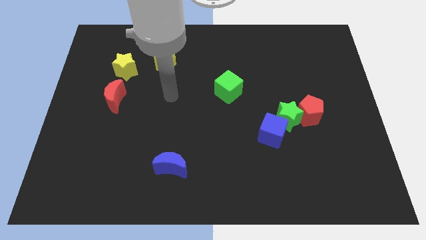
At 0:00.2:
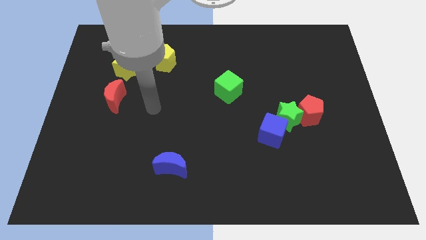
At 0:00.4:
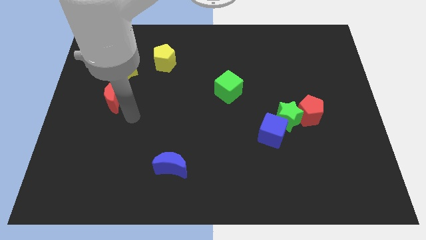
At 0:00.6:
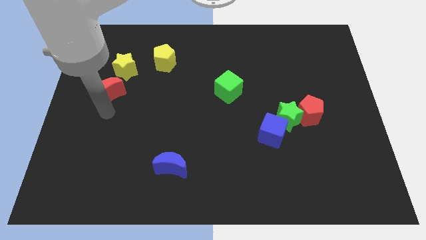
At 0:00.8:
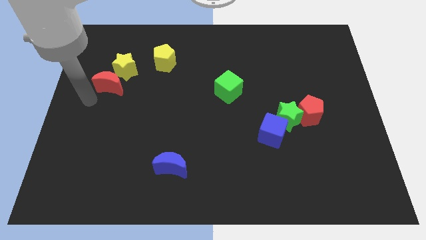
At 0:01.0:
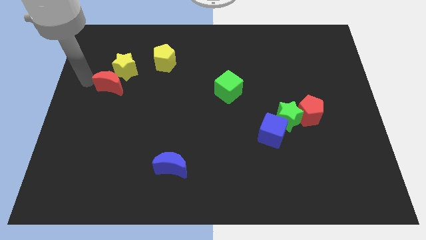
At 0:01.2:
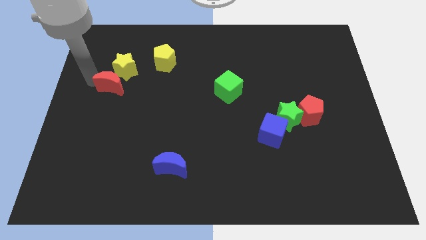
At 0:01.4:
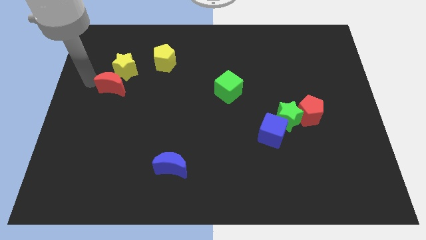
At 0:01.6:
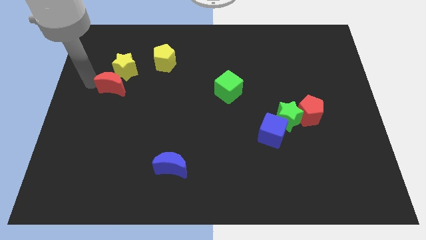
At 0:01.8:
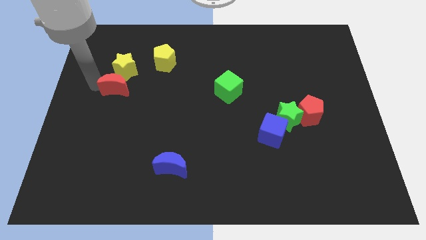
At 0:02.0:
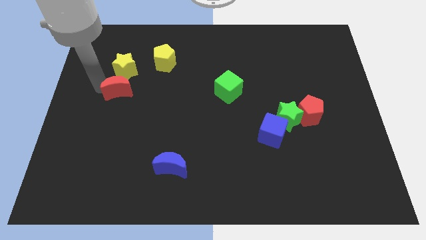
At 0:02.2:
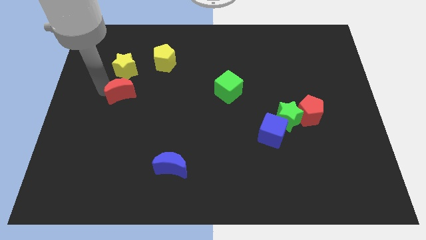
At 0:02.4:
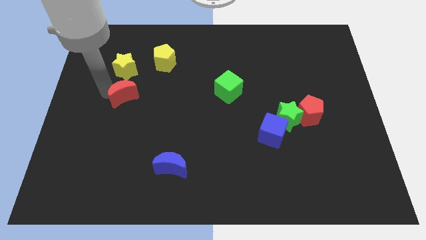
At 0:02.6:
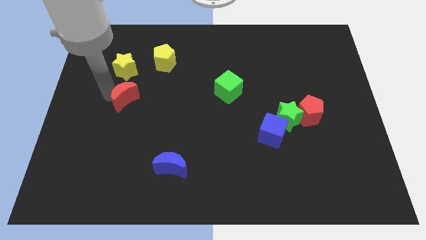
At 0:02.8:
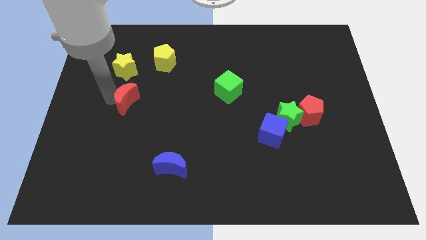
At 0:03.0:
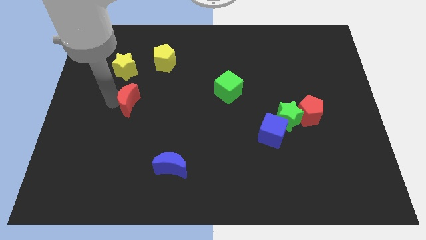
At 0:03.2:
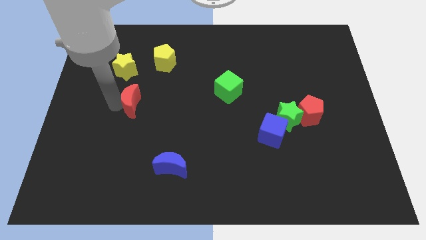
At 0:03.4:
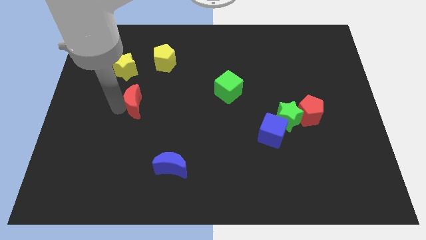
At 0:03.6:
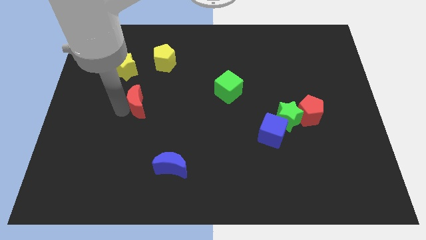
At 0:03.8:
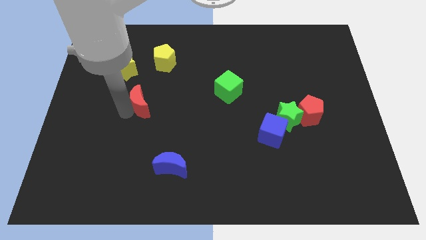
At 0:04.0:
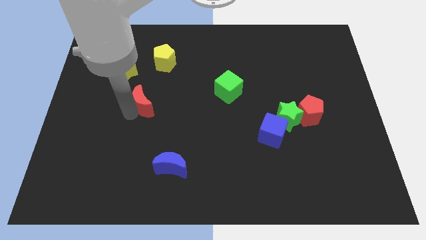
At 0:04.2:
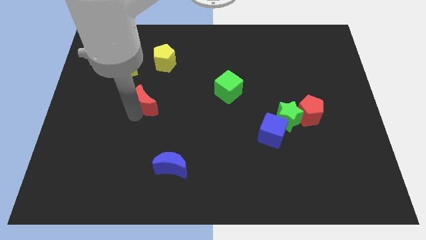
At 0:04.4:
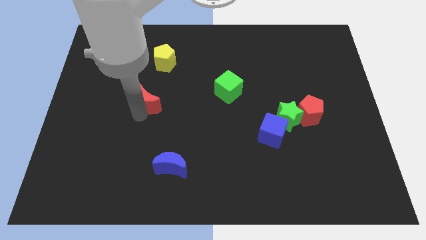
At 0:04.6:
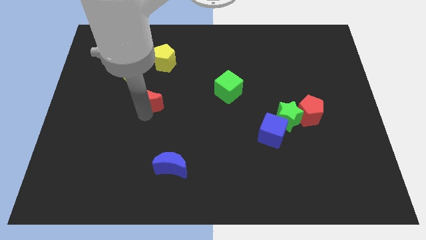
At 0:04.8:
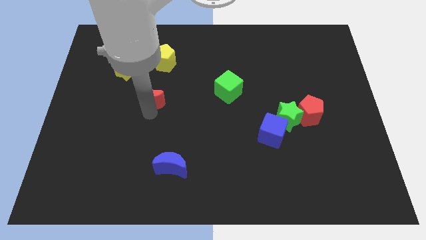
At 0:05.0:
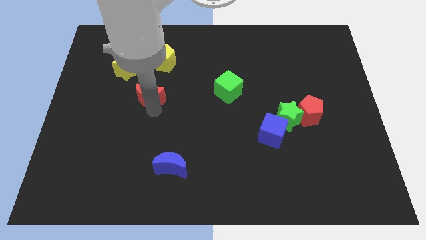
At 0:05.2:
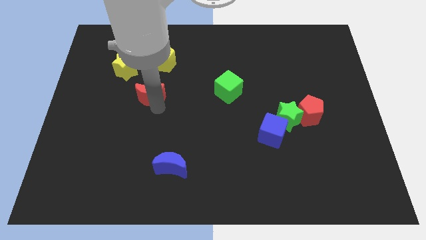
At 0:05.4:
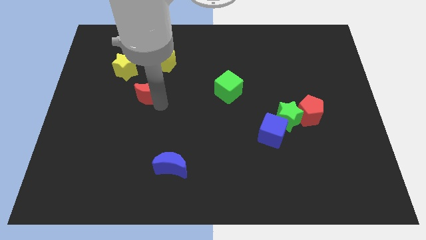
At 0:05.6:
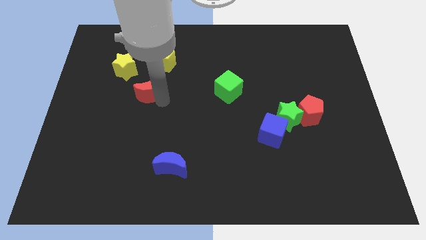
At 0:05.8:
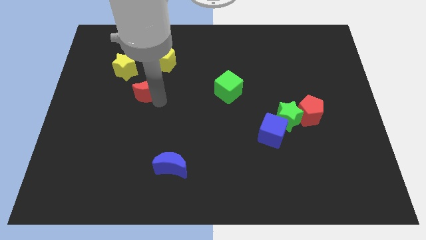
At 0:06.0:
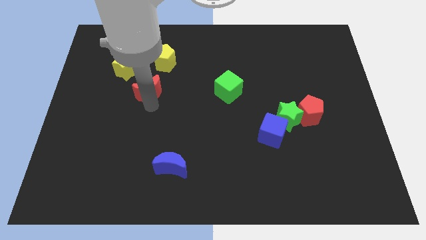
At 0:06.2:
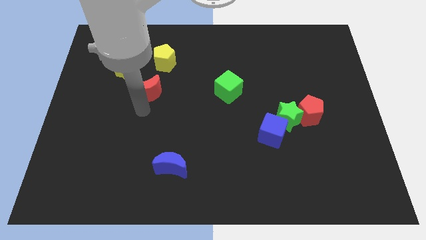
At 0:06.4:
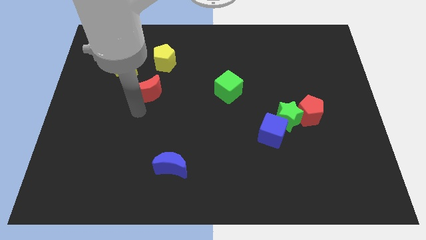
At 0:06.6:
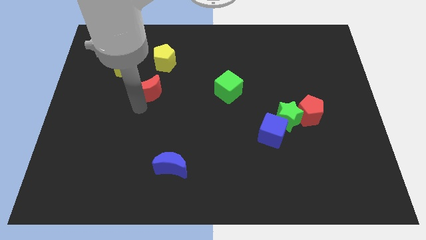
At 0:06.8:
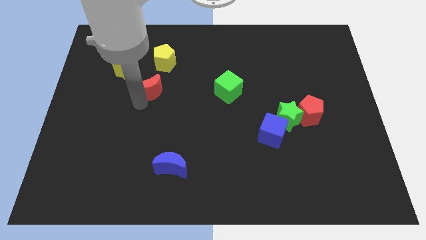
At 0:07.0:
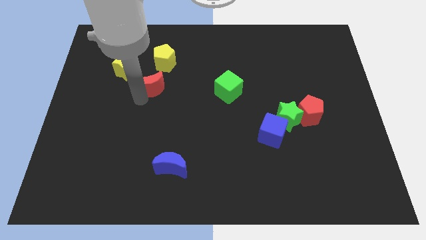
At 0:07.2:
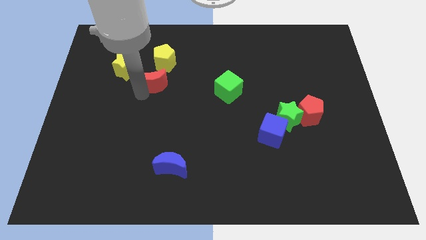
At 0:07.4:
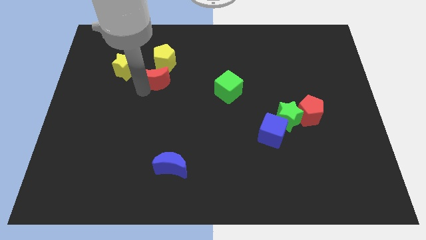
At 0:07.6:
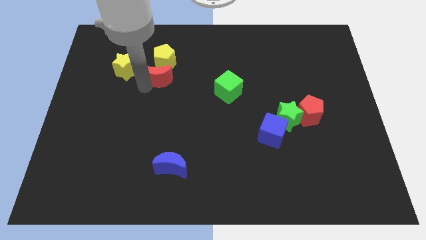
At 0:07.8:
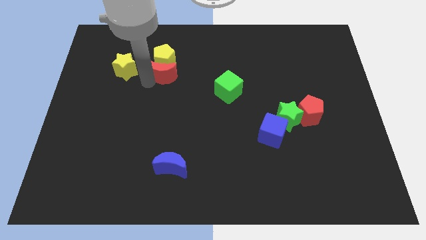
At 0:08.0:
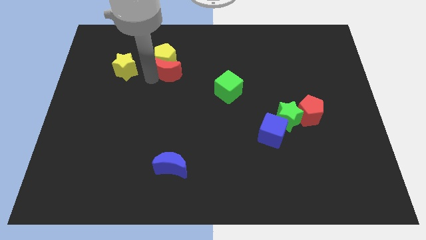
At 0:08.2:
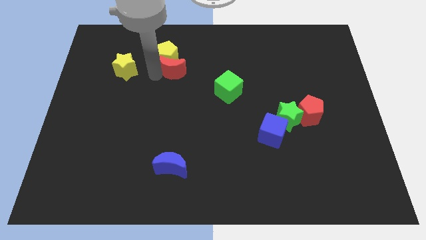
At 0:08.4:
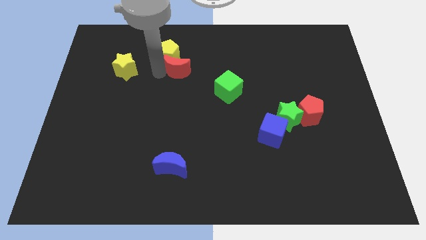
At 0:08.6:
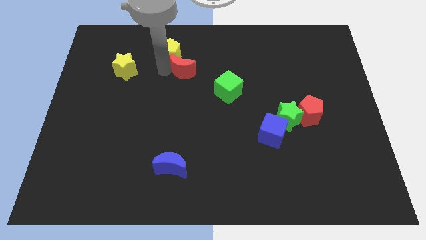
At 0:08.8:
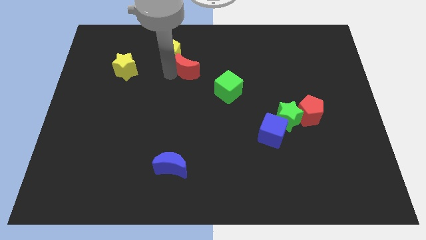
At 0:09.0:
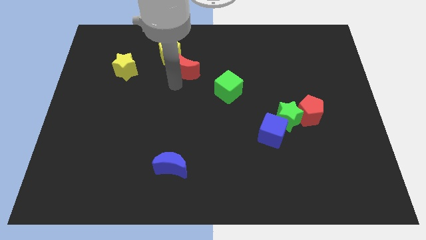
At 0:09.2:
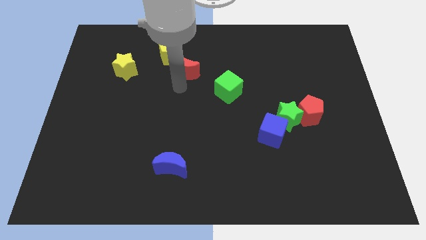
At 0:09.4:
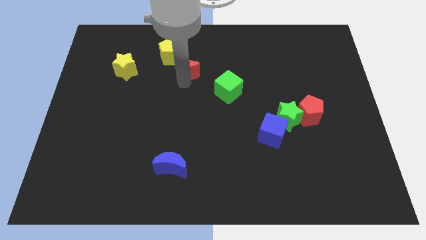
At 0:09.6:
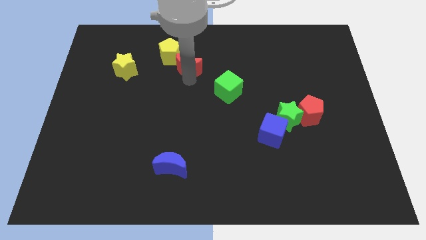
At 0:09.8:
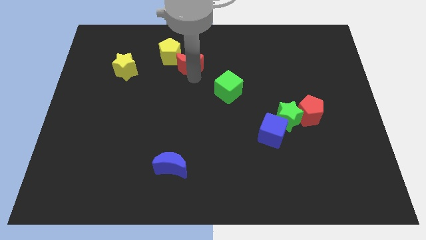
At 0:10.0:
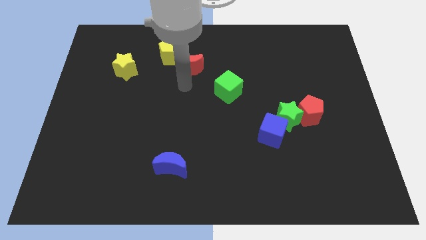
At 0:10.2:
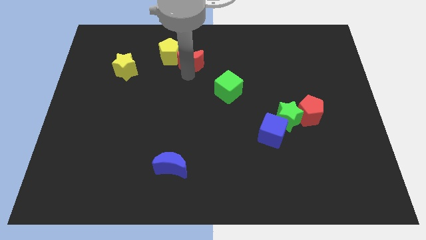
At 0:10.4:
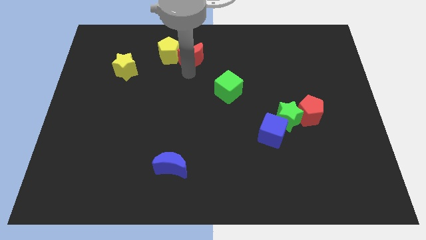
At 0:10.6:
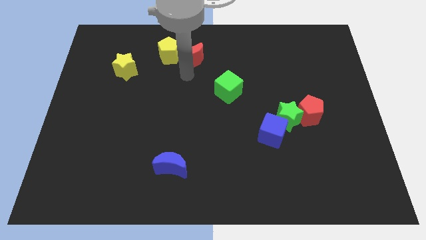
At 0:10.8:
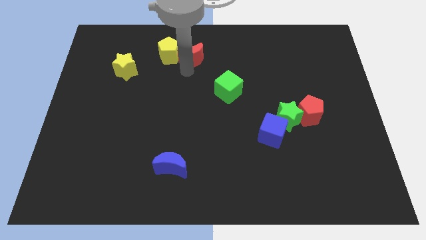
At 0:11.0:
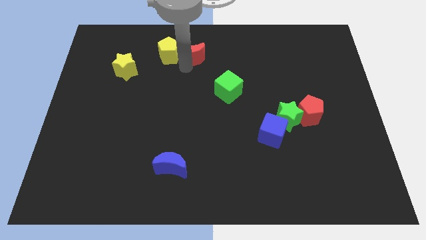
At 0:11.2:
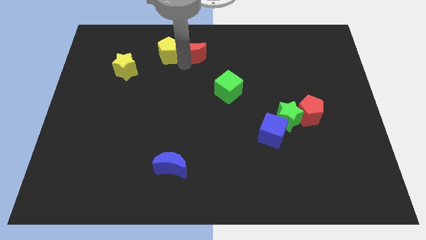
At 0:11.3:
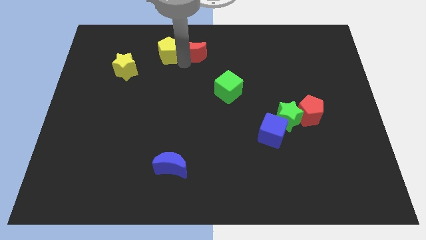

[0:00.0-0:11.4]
slide the red moon to the towards your base
